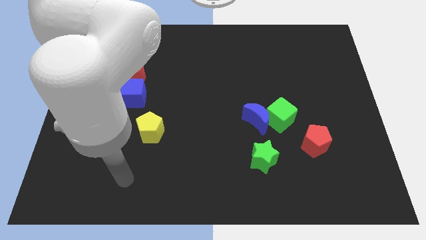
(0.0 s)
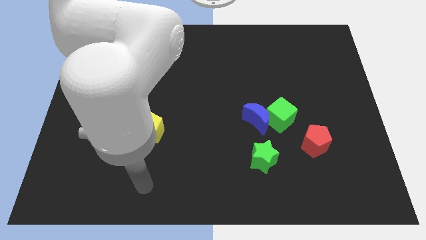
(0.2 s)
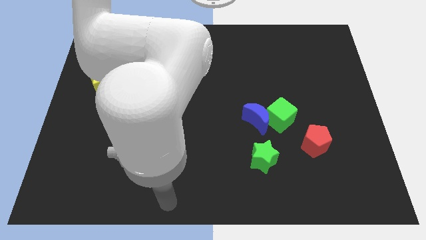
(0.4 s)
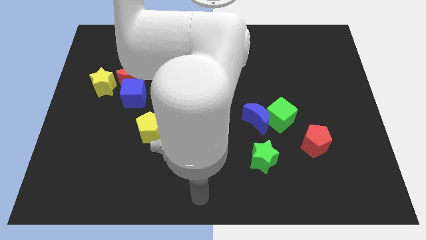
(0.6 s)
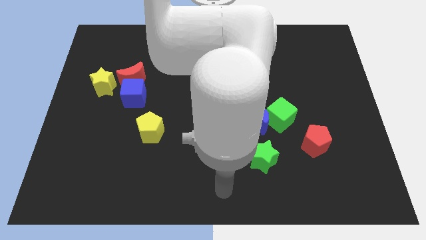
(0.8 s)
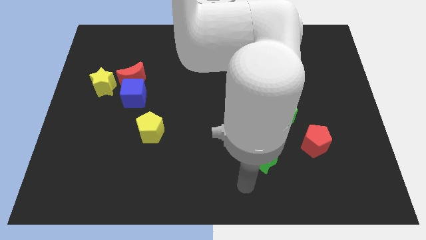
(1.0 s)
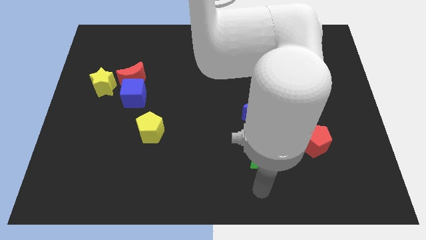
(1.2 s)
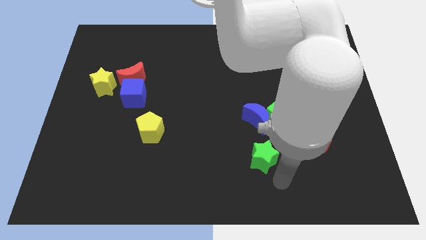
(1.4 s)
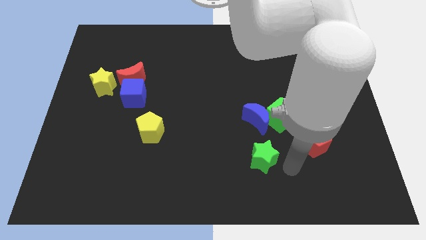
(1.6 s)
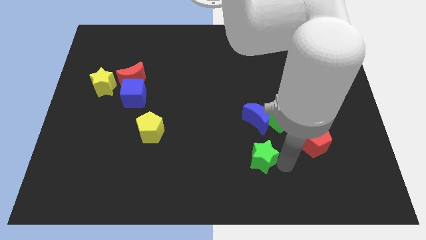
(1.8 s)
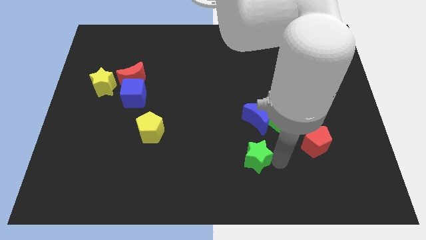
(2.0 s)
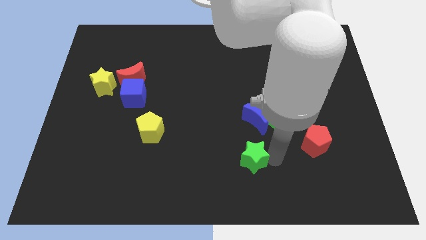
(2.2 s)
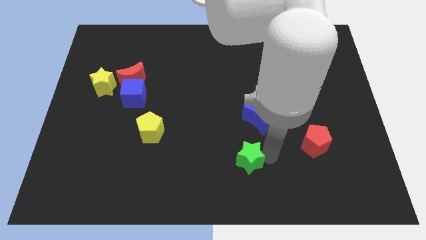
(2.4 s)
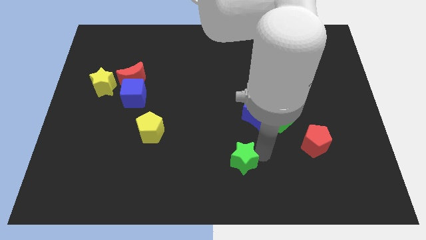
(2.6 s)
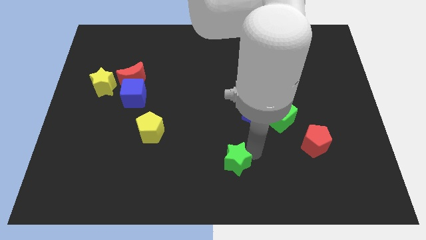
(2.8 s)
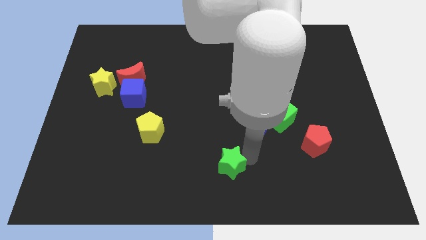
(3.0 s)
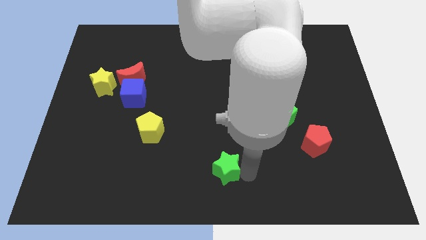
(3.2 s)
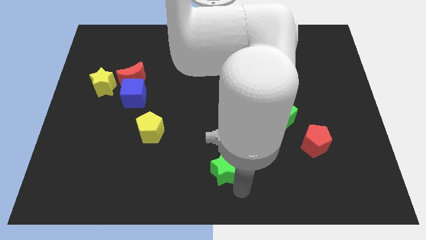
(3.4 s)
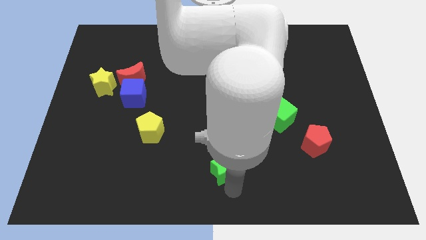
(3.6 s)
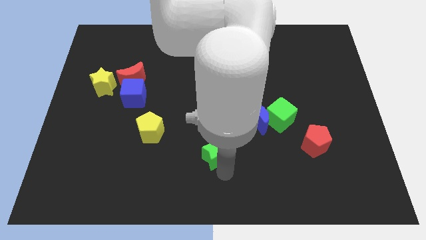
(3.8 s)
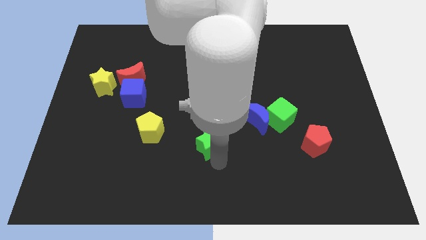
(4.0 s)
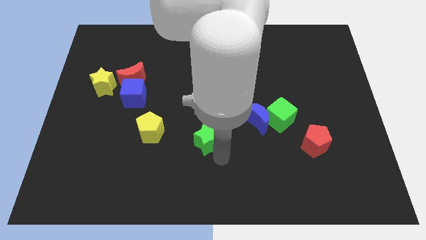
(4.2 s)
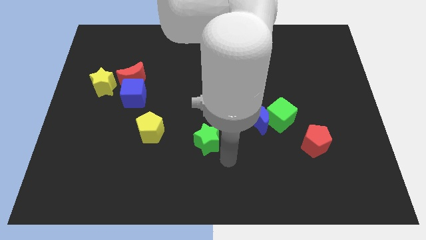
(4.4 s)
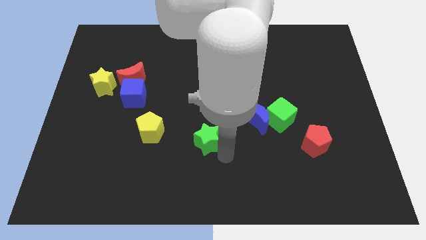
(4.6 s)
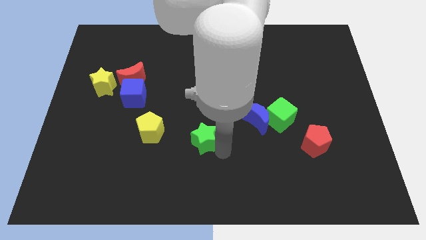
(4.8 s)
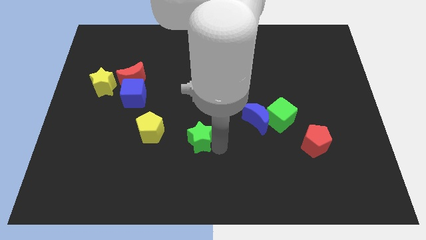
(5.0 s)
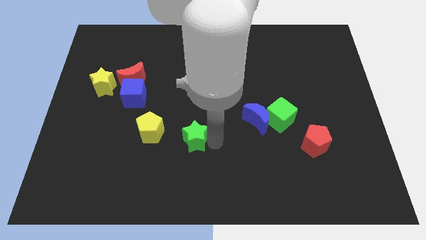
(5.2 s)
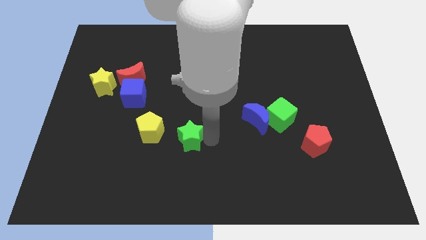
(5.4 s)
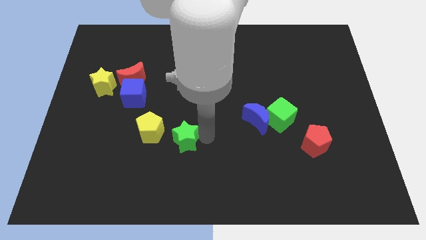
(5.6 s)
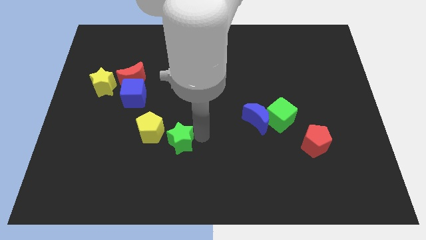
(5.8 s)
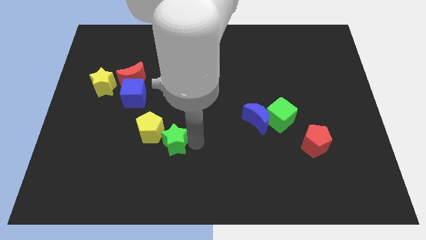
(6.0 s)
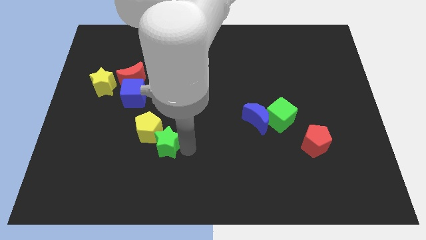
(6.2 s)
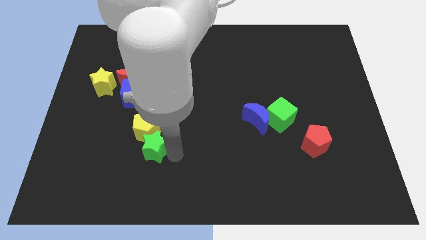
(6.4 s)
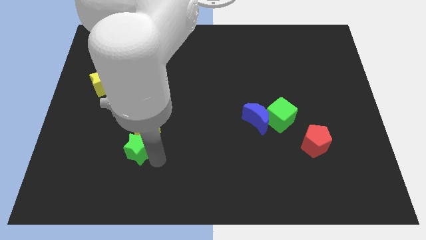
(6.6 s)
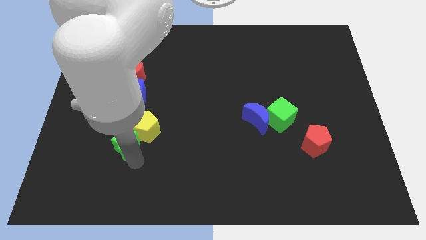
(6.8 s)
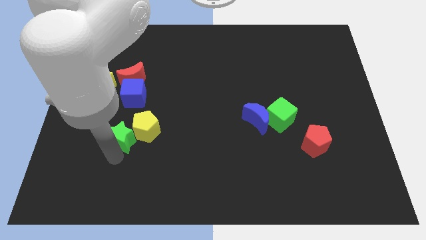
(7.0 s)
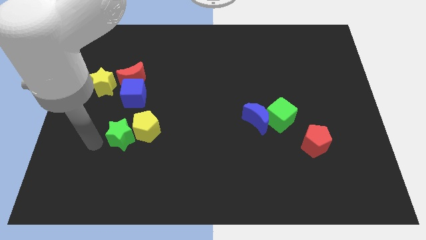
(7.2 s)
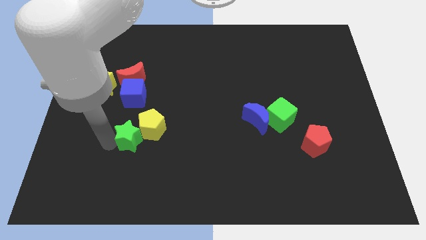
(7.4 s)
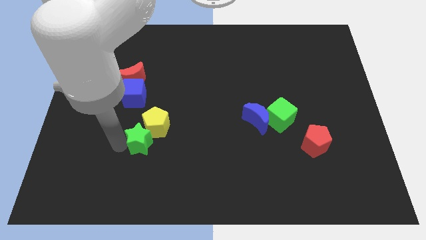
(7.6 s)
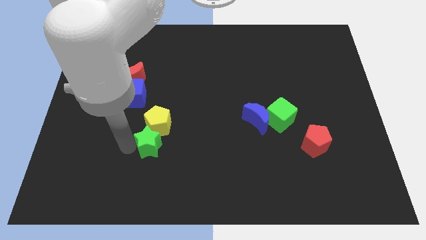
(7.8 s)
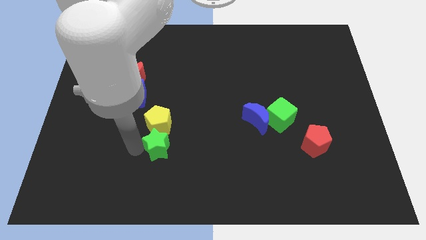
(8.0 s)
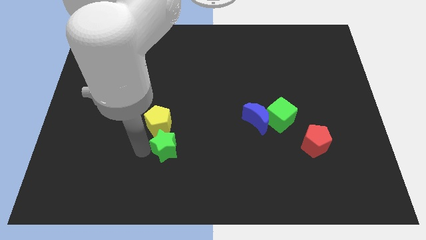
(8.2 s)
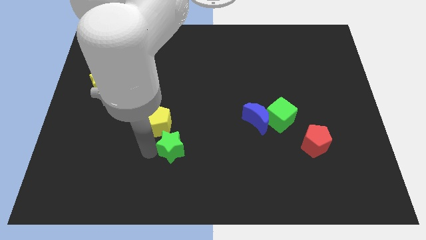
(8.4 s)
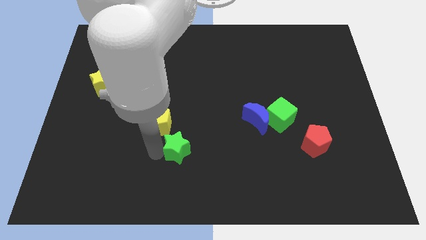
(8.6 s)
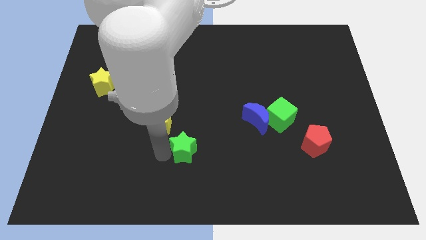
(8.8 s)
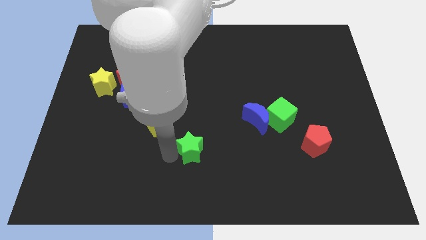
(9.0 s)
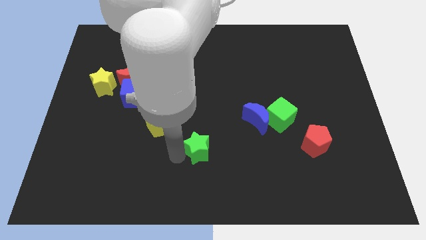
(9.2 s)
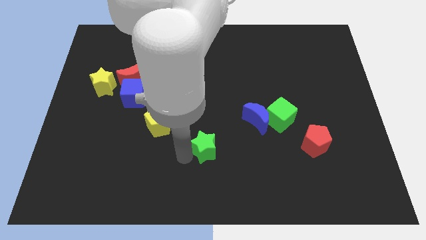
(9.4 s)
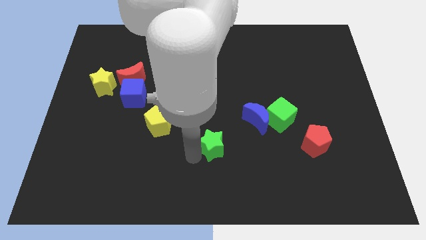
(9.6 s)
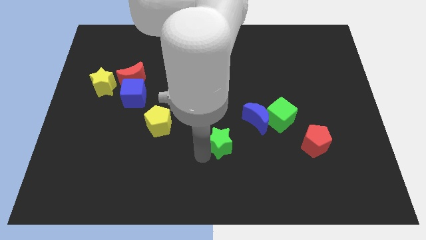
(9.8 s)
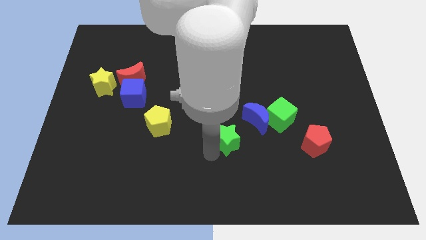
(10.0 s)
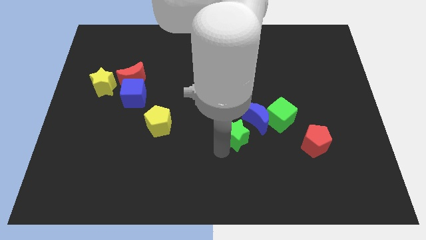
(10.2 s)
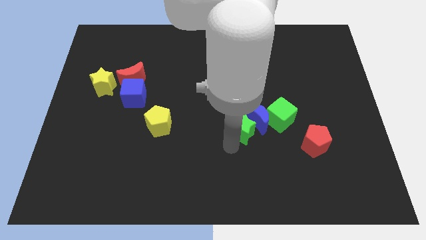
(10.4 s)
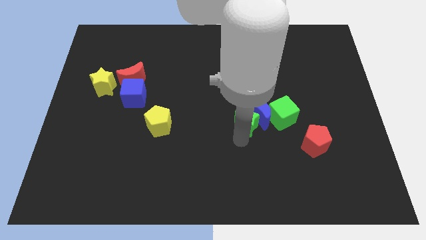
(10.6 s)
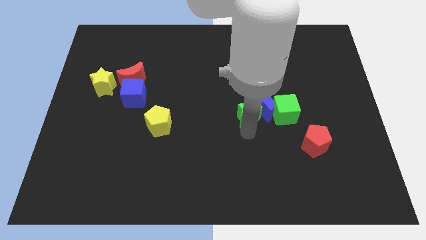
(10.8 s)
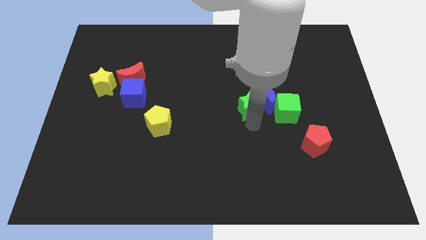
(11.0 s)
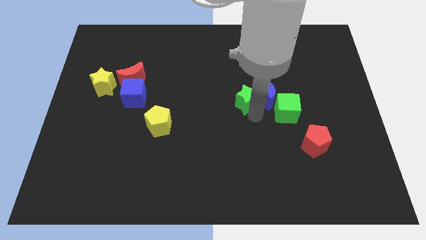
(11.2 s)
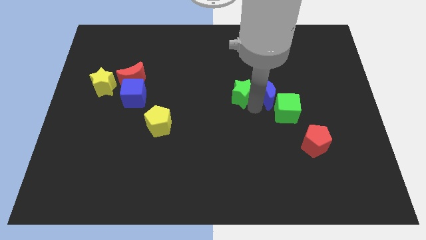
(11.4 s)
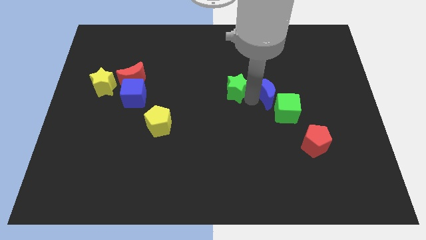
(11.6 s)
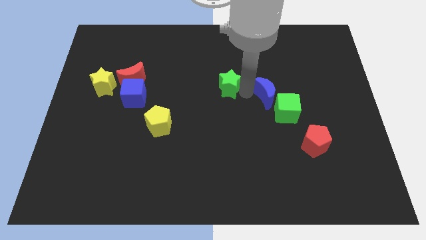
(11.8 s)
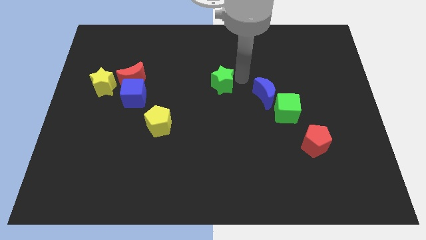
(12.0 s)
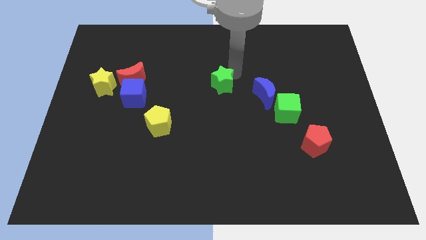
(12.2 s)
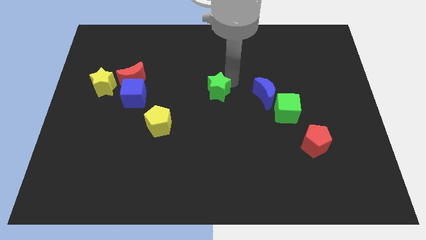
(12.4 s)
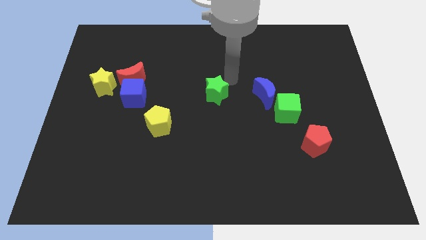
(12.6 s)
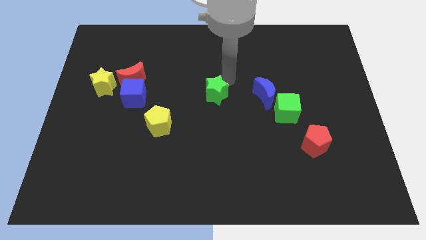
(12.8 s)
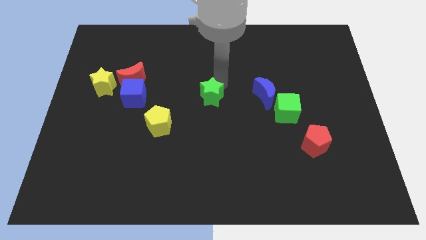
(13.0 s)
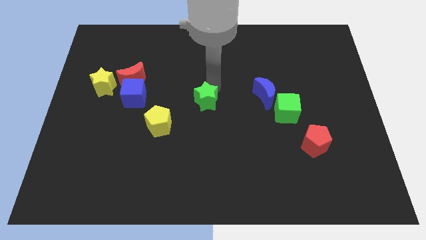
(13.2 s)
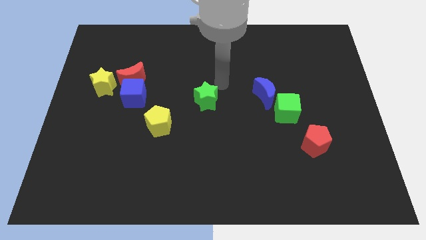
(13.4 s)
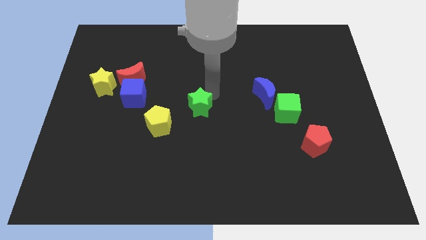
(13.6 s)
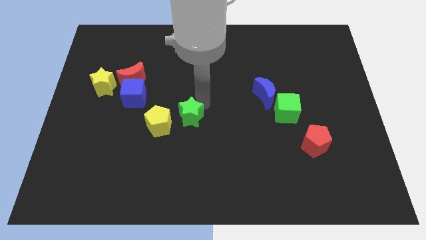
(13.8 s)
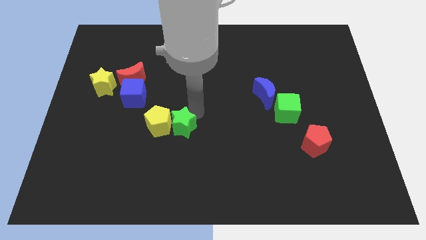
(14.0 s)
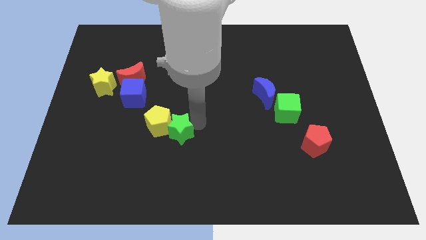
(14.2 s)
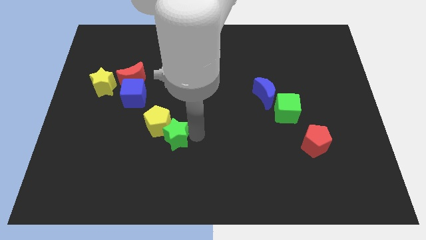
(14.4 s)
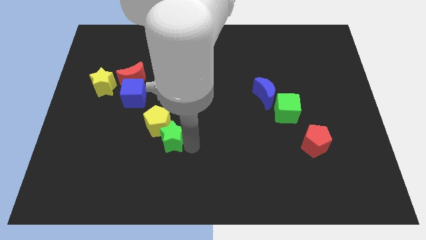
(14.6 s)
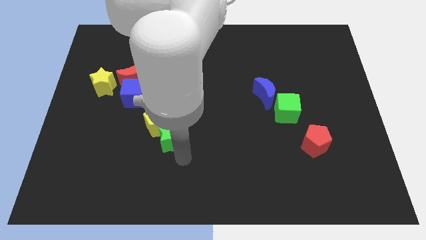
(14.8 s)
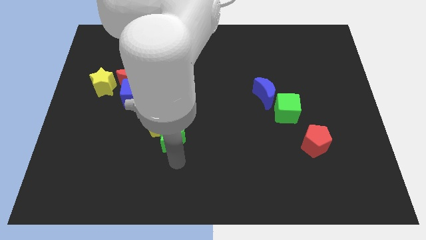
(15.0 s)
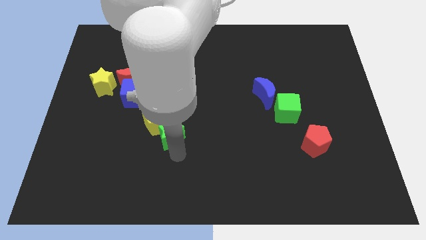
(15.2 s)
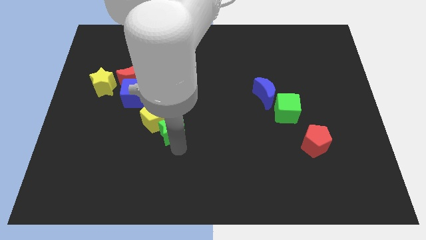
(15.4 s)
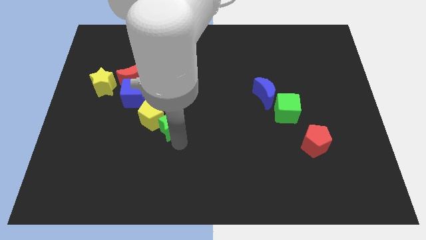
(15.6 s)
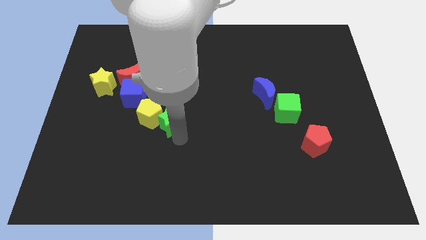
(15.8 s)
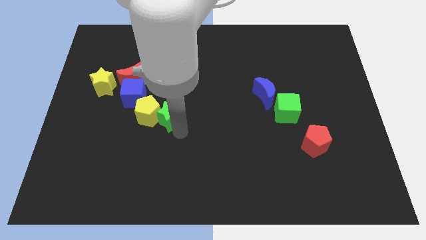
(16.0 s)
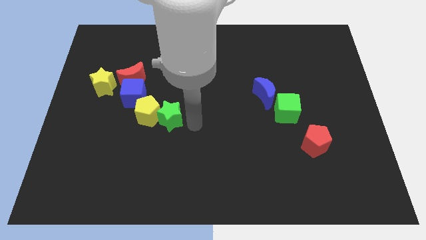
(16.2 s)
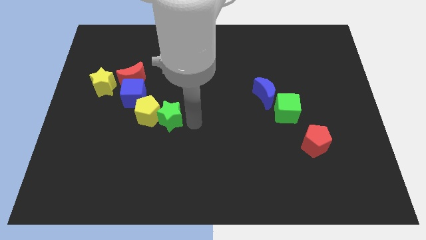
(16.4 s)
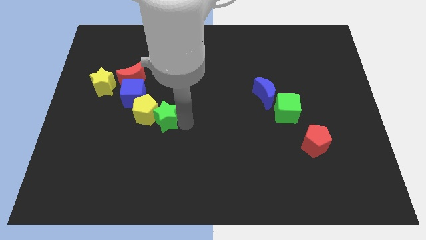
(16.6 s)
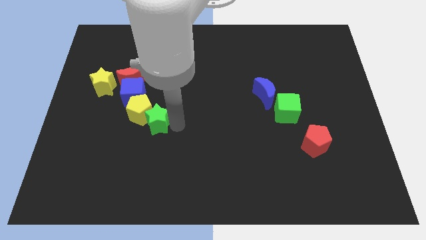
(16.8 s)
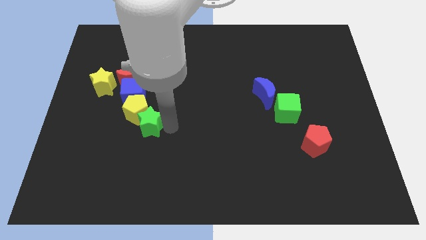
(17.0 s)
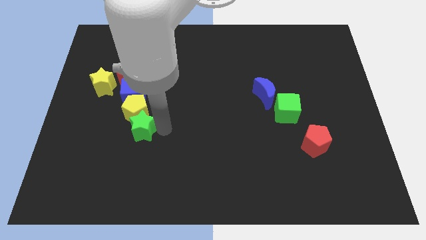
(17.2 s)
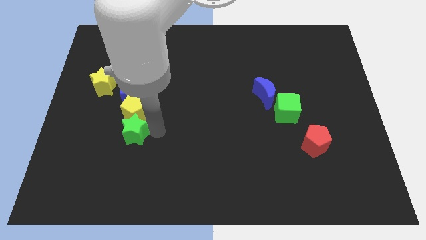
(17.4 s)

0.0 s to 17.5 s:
slide the green star below the red moon
